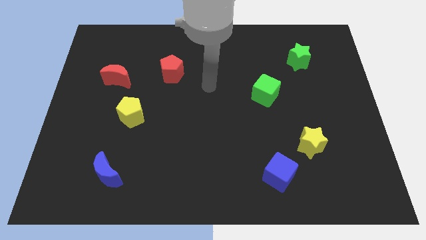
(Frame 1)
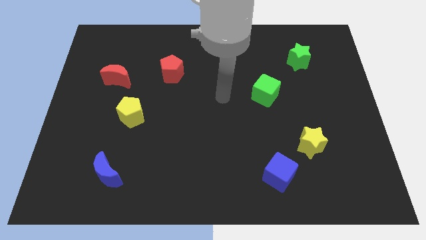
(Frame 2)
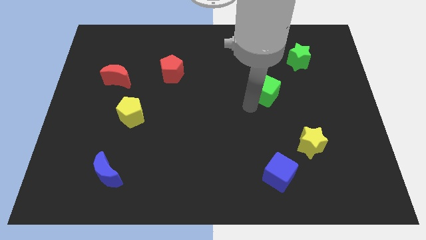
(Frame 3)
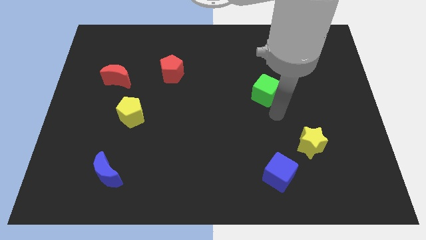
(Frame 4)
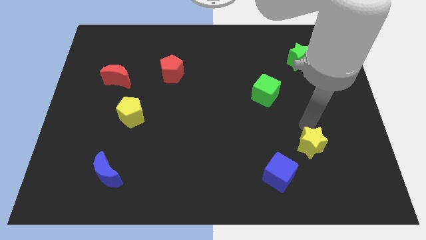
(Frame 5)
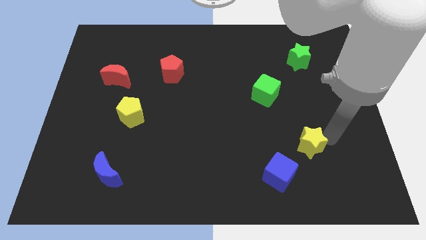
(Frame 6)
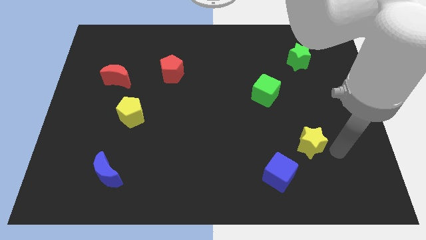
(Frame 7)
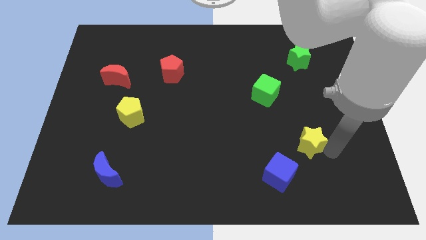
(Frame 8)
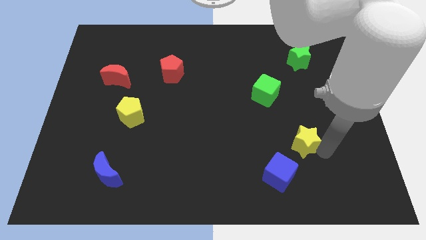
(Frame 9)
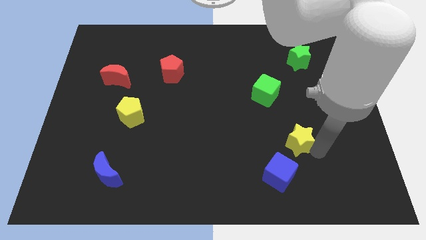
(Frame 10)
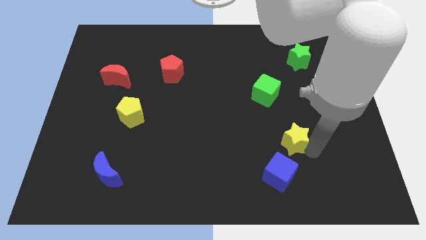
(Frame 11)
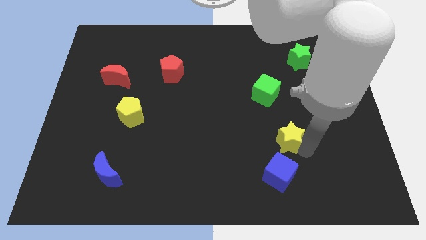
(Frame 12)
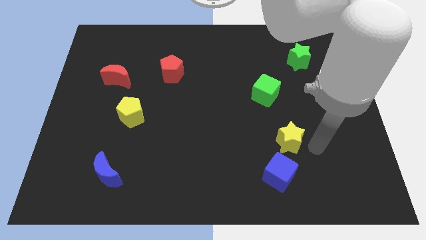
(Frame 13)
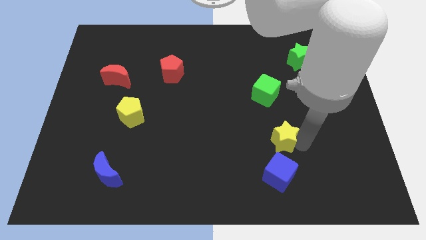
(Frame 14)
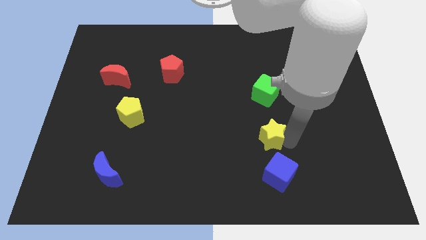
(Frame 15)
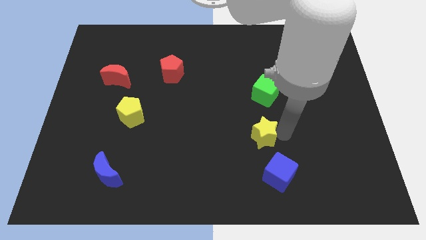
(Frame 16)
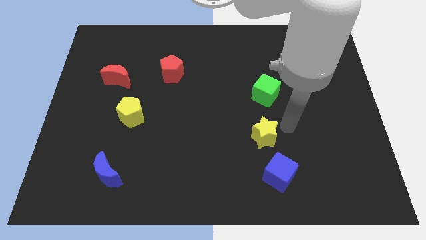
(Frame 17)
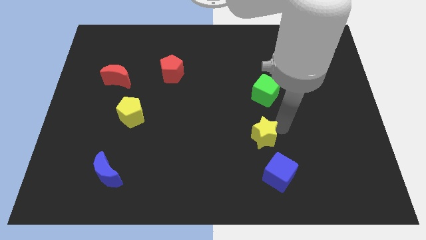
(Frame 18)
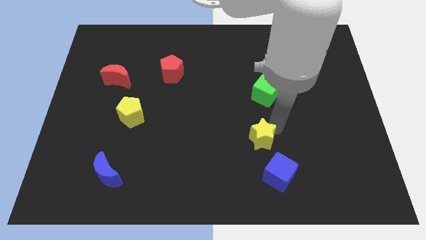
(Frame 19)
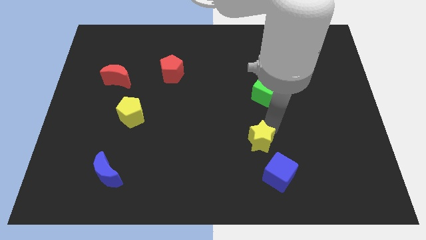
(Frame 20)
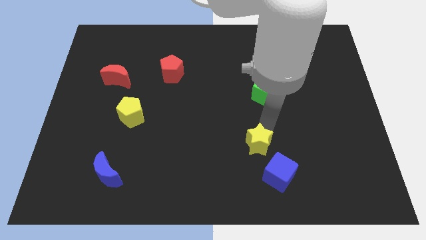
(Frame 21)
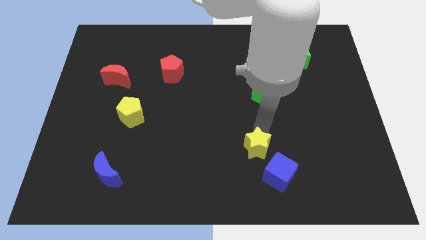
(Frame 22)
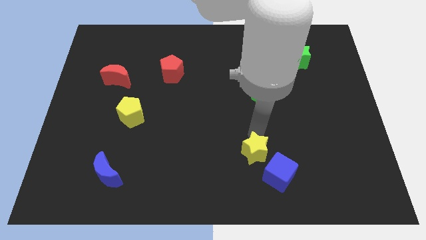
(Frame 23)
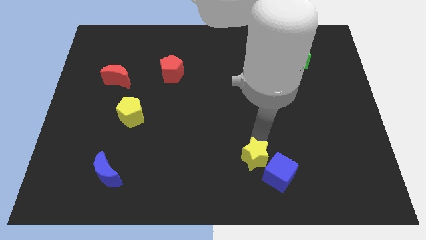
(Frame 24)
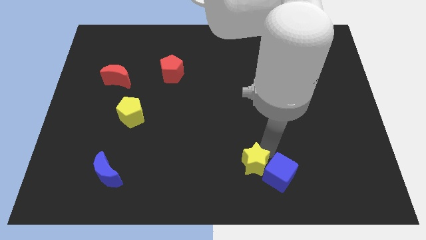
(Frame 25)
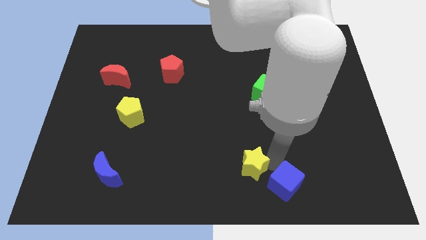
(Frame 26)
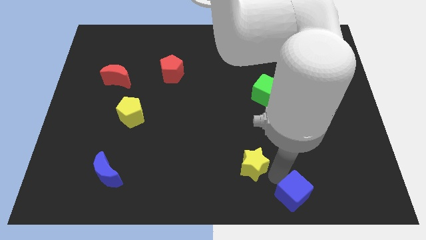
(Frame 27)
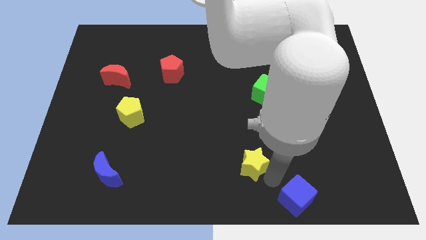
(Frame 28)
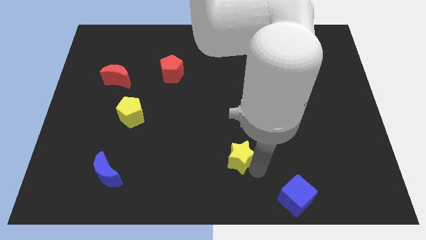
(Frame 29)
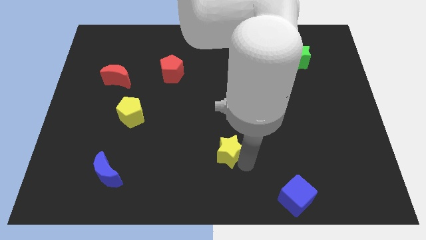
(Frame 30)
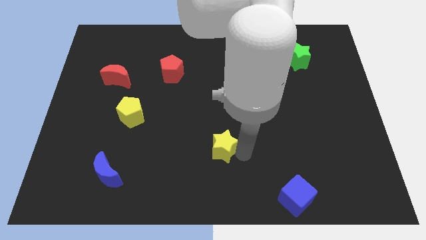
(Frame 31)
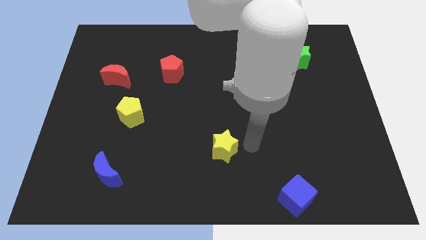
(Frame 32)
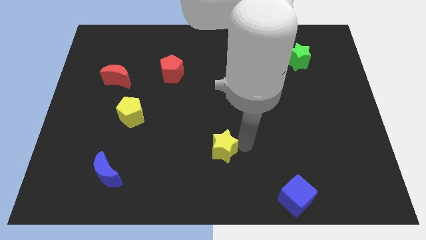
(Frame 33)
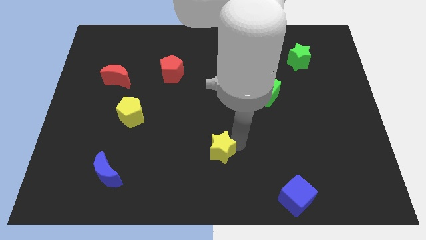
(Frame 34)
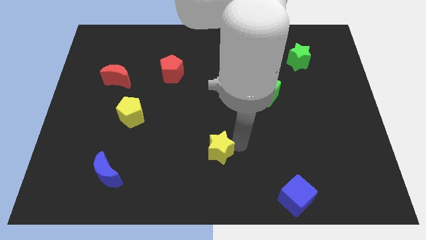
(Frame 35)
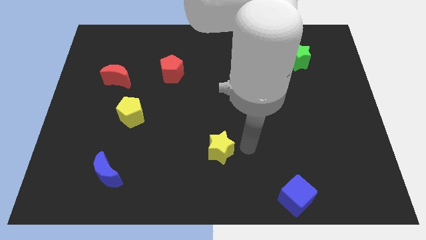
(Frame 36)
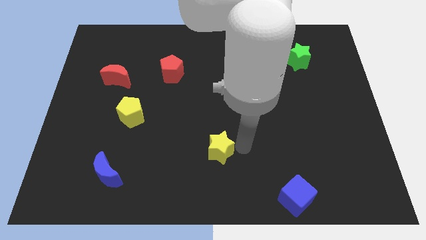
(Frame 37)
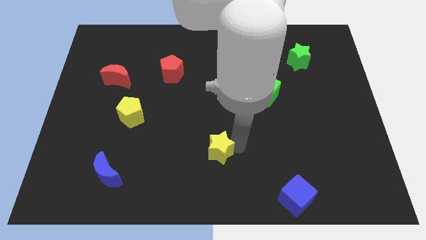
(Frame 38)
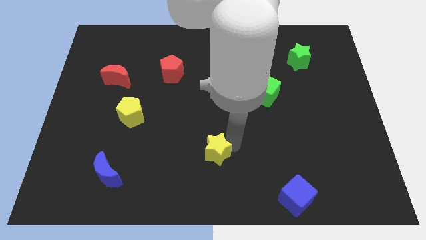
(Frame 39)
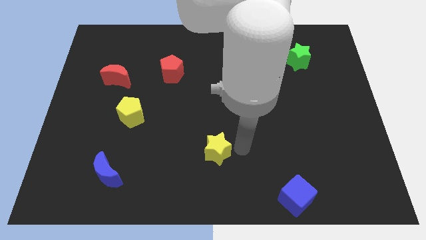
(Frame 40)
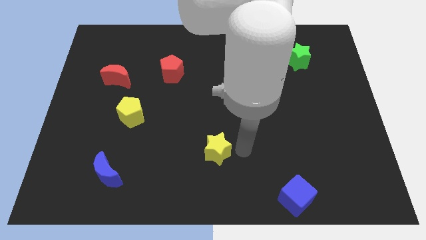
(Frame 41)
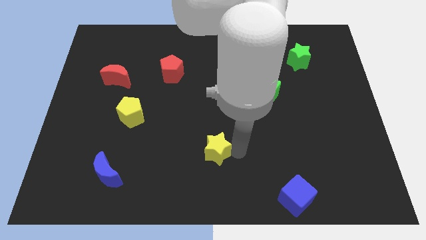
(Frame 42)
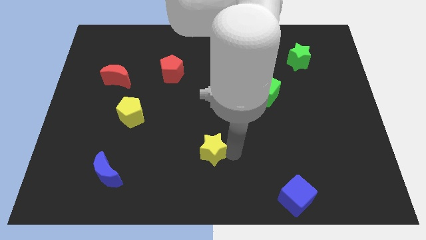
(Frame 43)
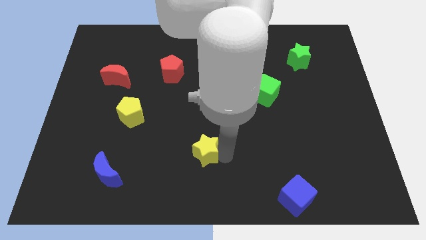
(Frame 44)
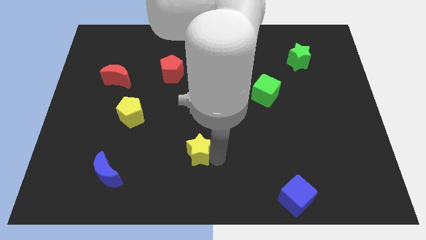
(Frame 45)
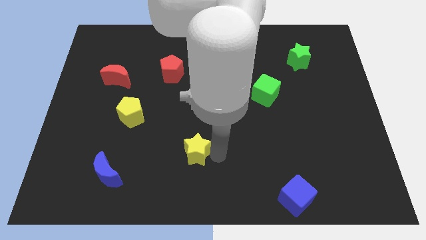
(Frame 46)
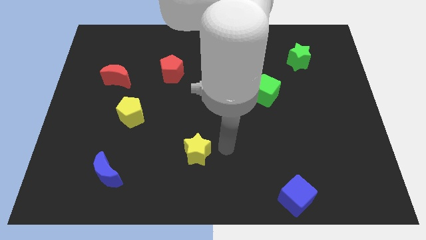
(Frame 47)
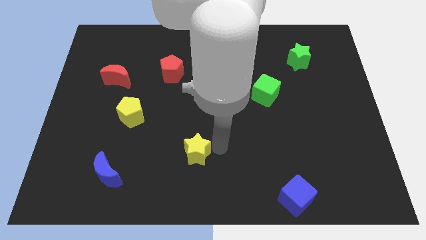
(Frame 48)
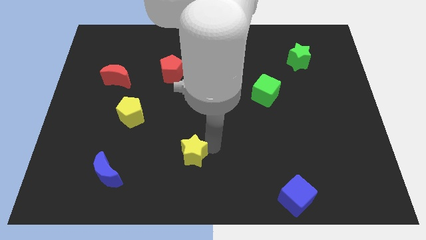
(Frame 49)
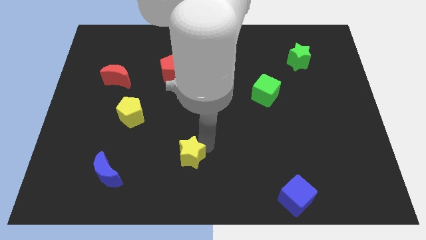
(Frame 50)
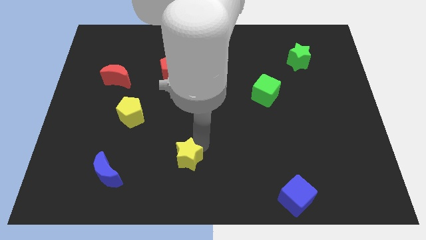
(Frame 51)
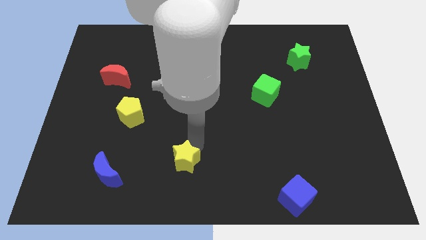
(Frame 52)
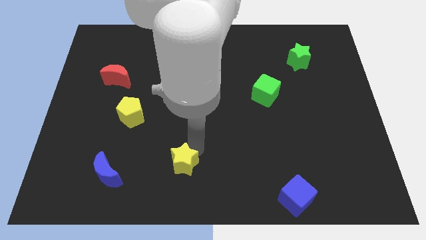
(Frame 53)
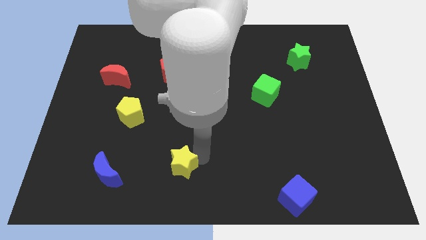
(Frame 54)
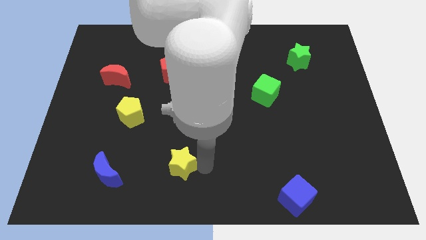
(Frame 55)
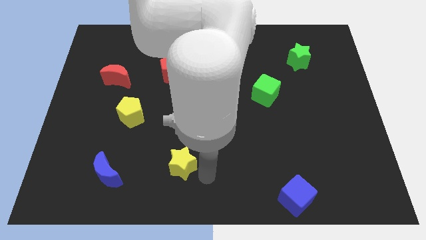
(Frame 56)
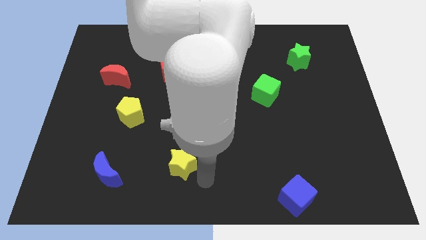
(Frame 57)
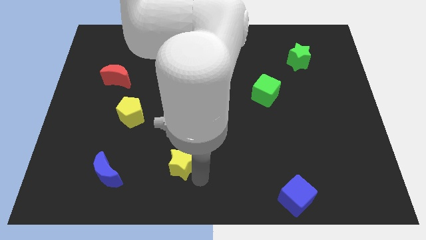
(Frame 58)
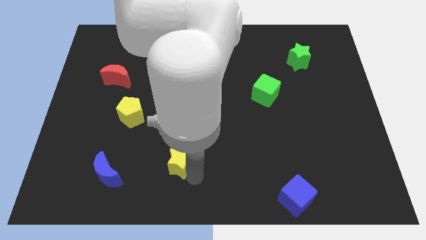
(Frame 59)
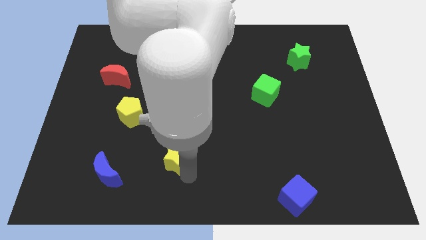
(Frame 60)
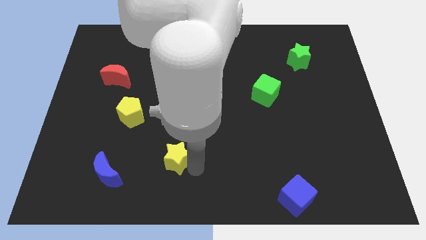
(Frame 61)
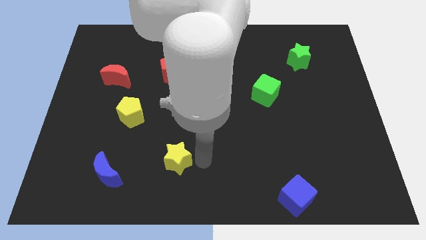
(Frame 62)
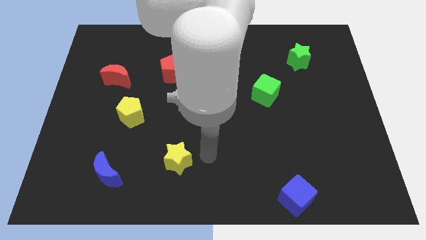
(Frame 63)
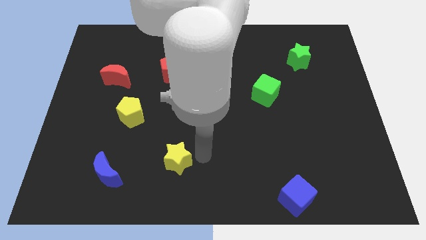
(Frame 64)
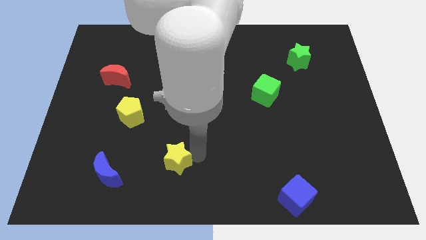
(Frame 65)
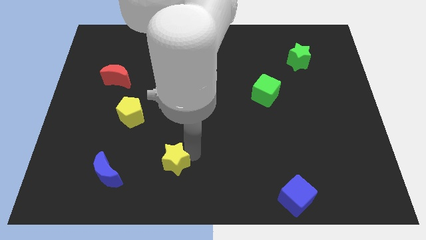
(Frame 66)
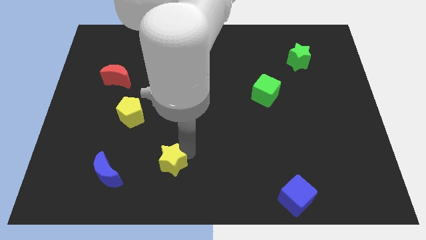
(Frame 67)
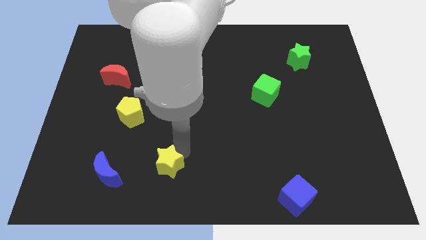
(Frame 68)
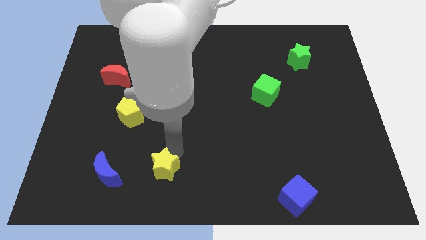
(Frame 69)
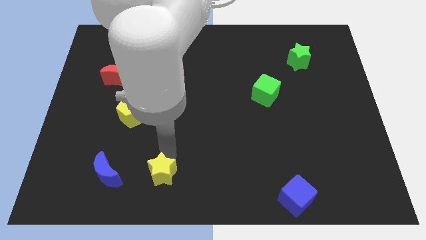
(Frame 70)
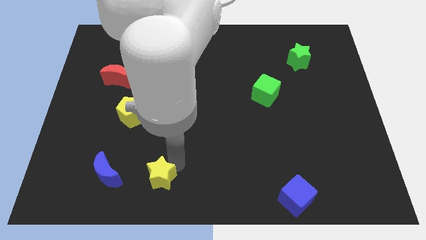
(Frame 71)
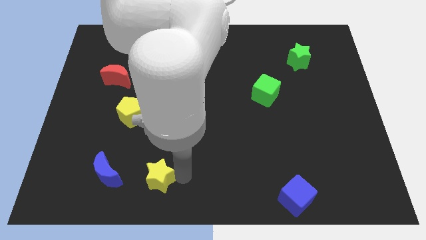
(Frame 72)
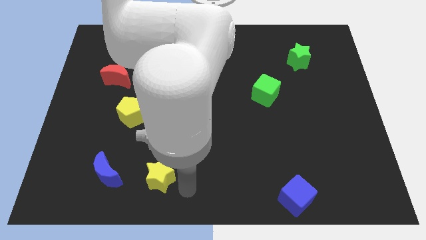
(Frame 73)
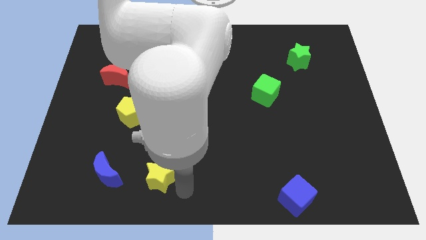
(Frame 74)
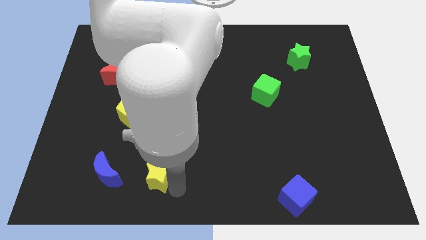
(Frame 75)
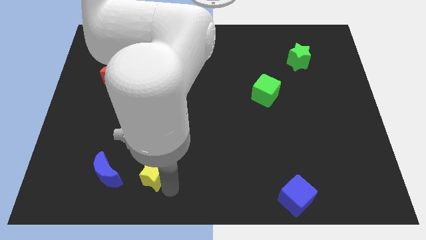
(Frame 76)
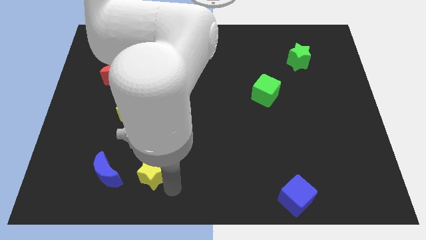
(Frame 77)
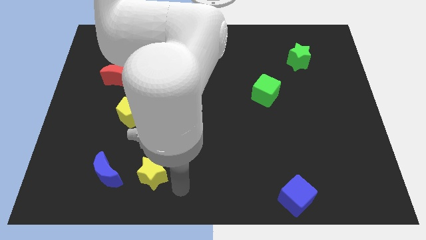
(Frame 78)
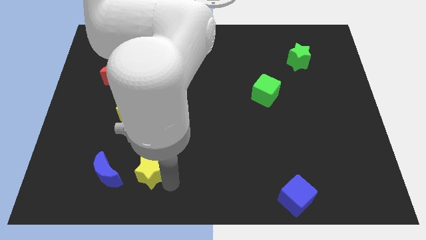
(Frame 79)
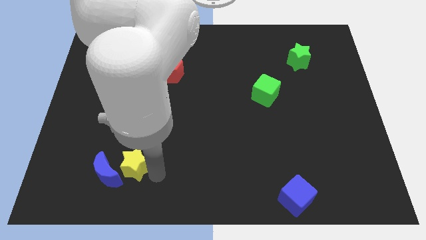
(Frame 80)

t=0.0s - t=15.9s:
push the yellow star towards the blue moon

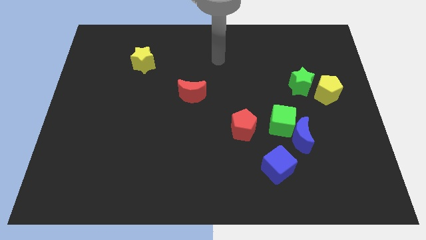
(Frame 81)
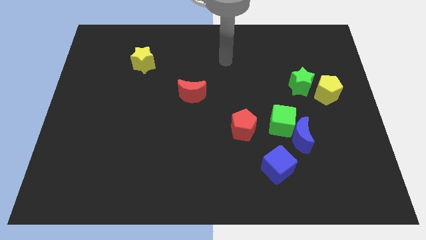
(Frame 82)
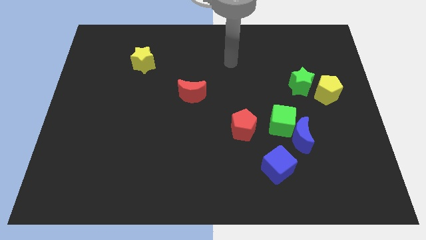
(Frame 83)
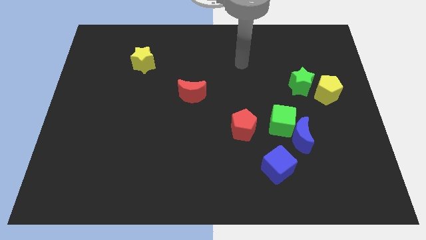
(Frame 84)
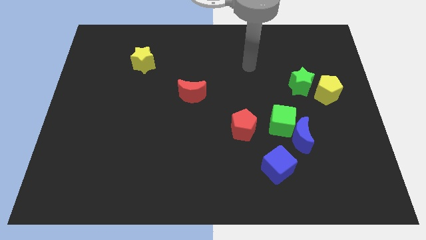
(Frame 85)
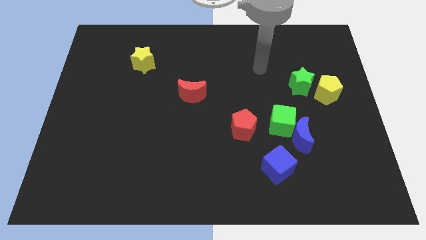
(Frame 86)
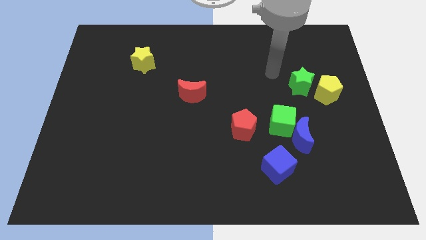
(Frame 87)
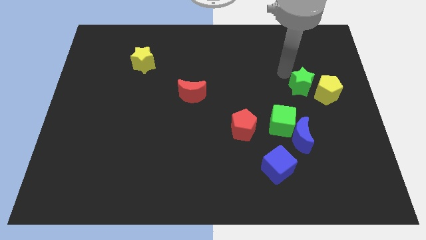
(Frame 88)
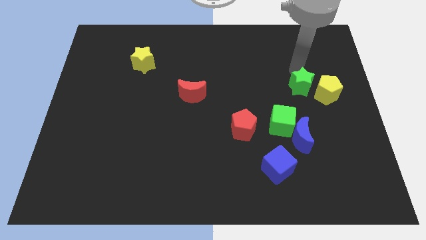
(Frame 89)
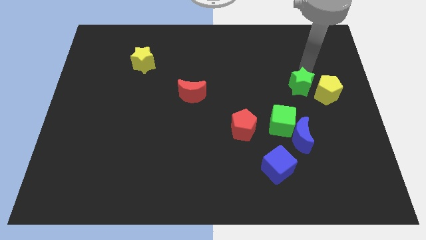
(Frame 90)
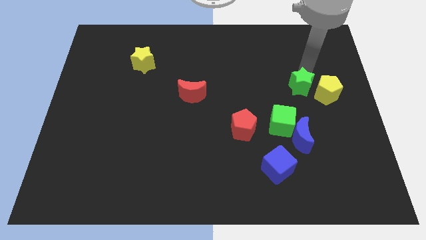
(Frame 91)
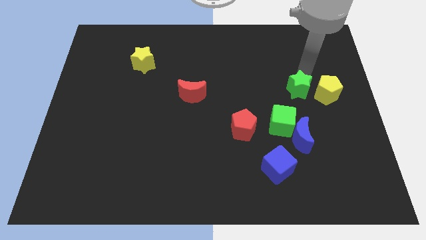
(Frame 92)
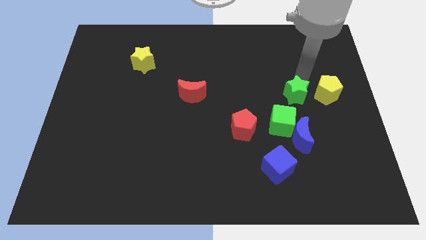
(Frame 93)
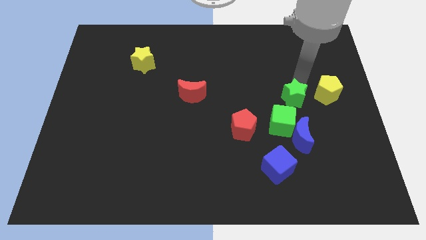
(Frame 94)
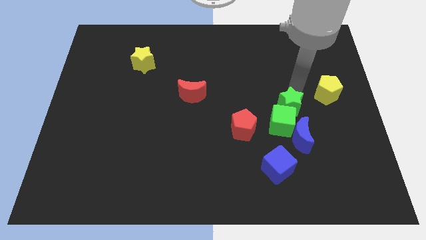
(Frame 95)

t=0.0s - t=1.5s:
move the green star next to the green cube
